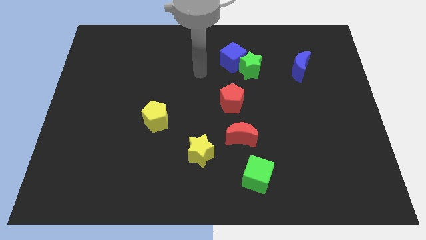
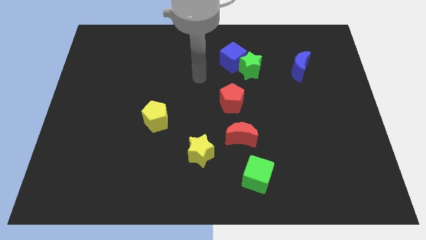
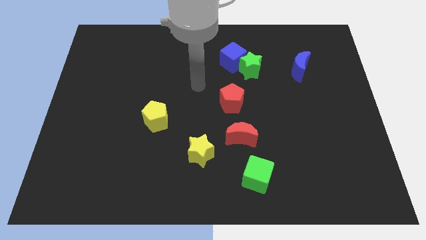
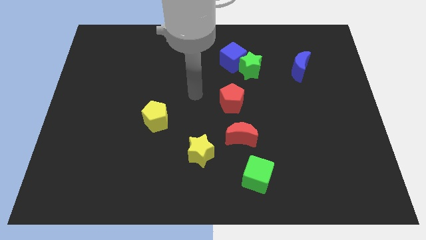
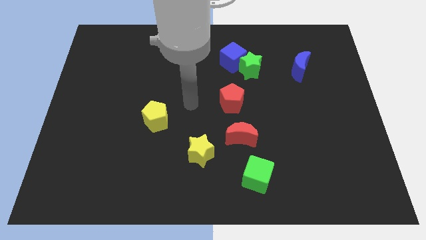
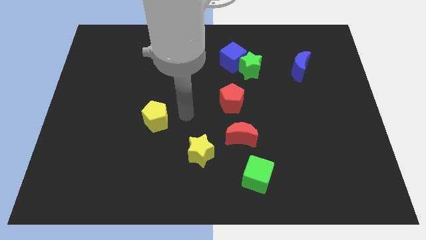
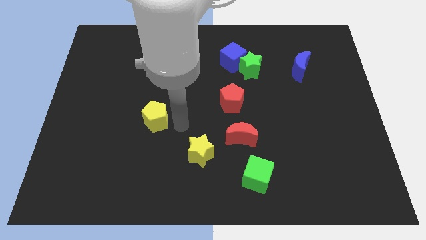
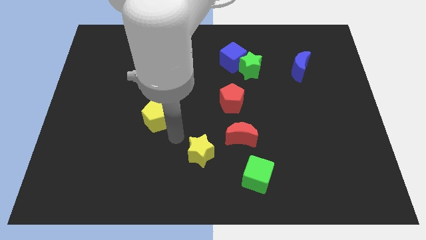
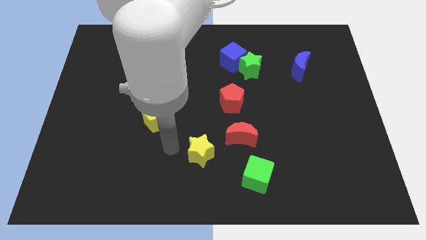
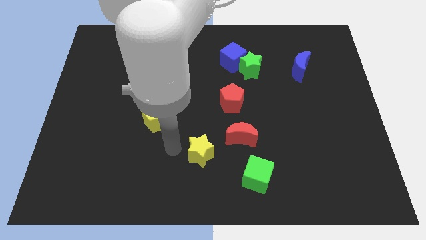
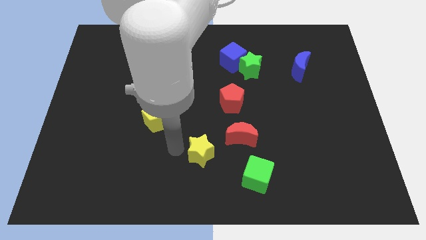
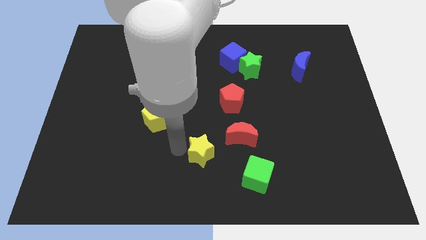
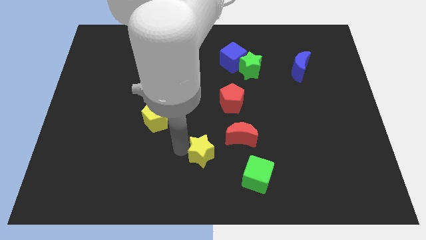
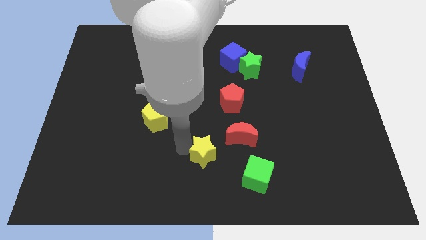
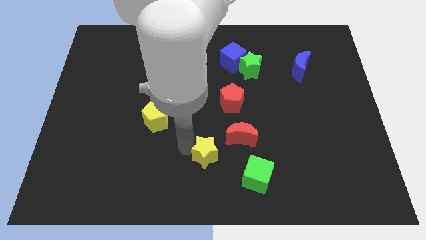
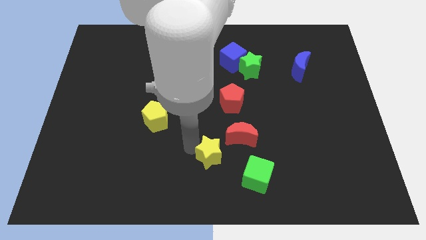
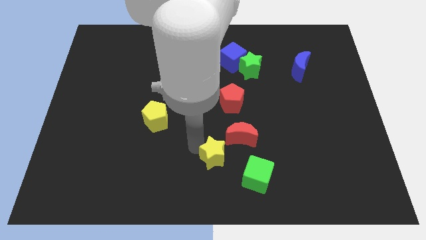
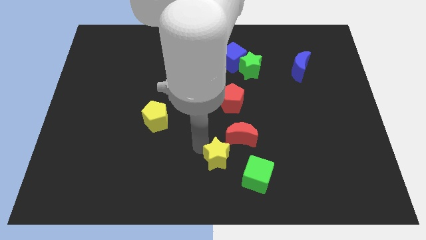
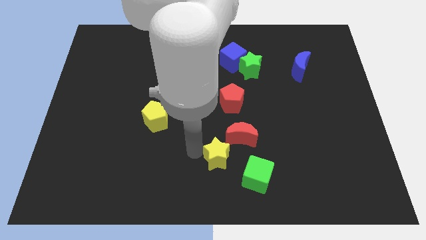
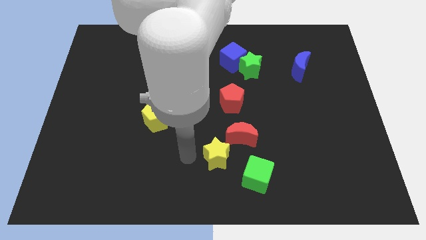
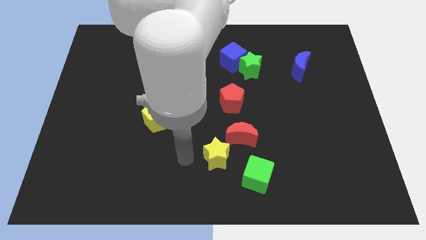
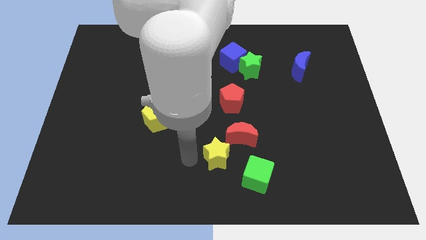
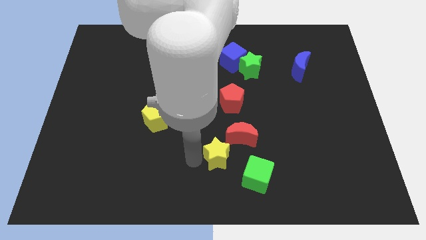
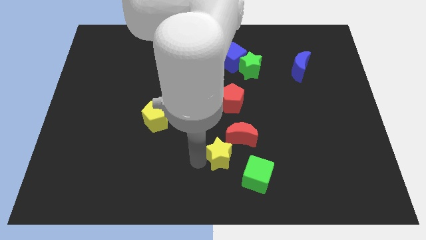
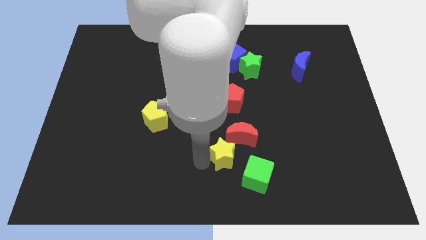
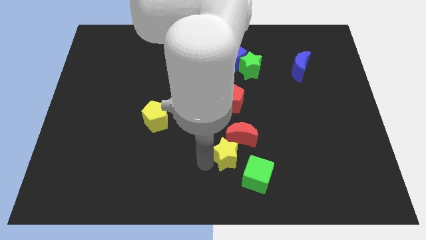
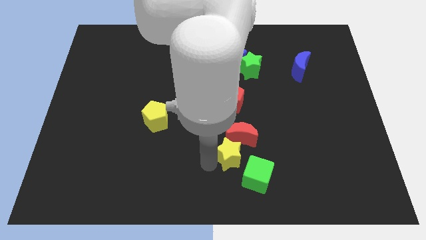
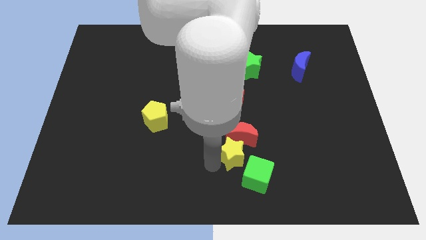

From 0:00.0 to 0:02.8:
slide the yellow star slightly right

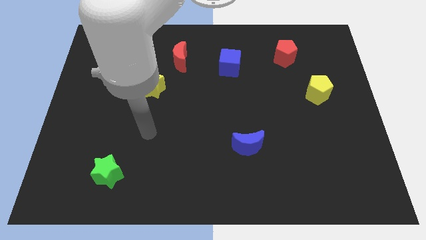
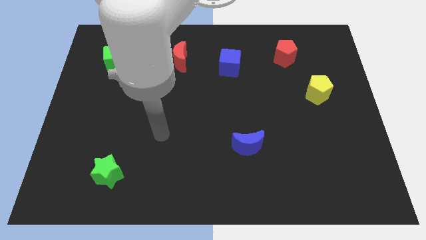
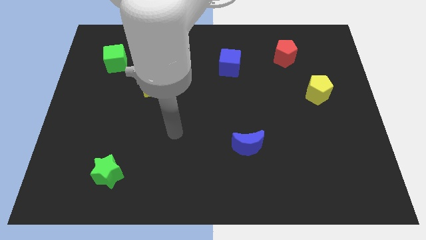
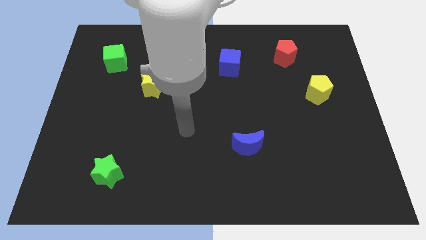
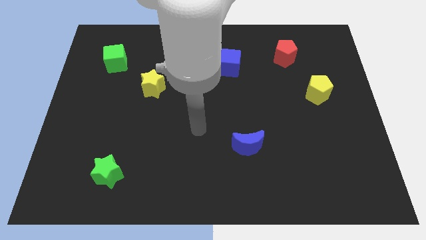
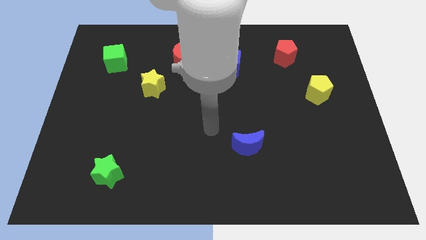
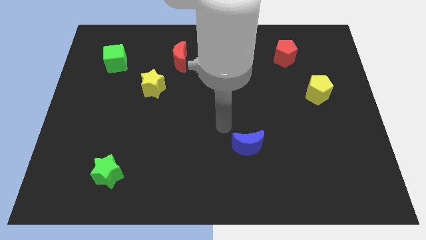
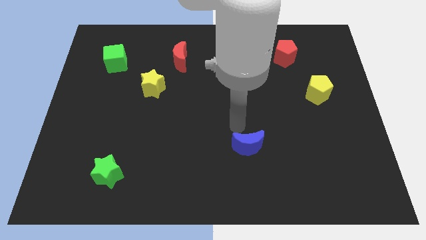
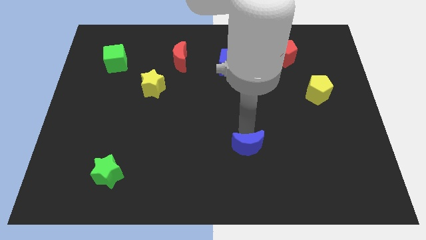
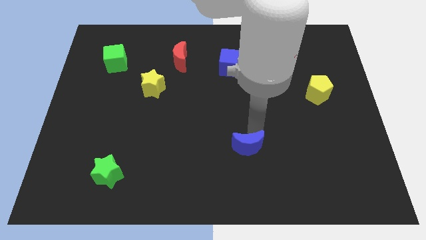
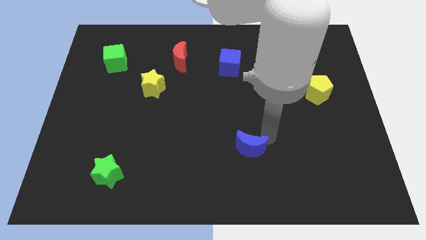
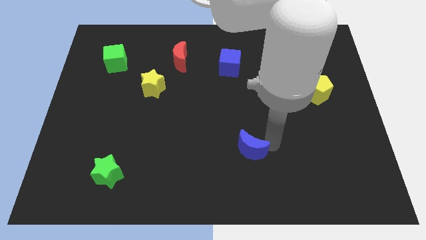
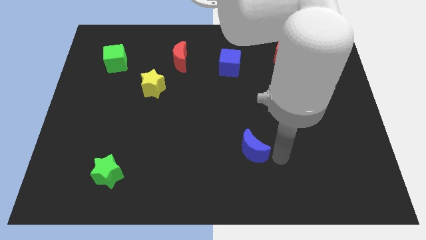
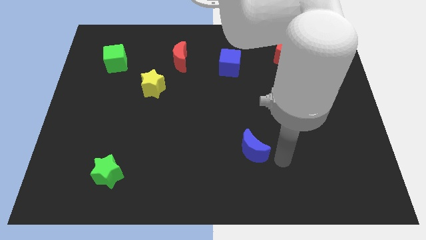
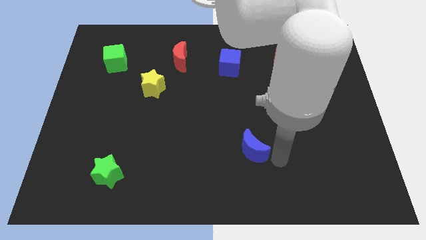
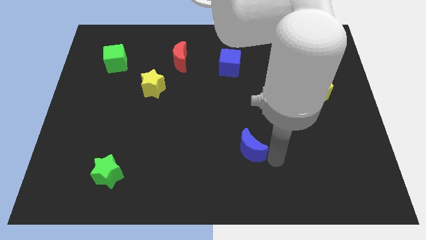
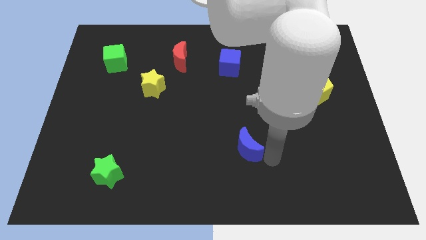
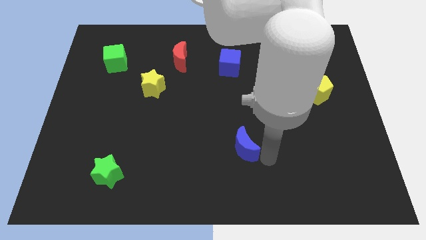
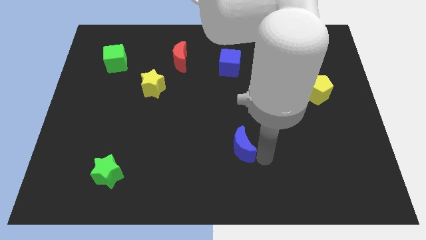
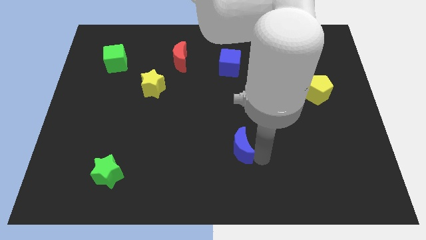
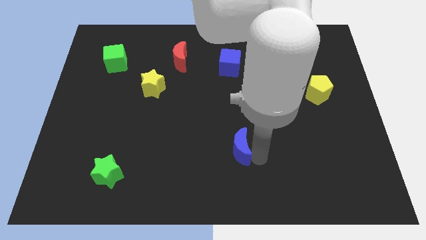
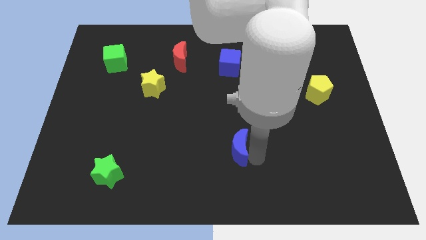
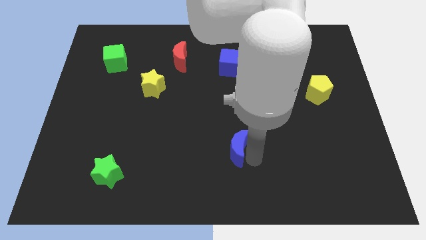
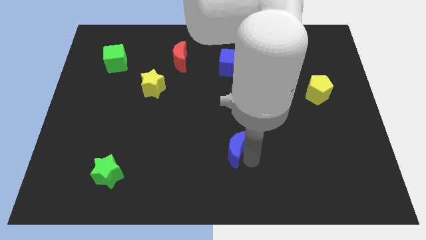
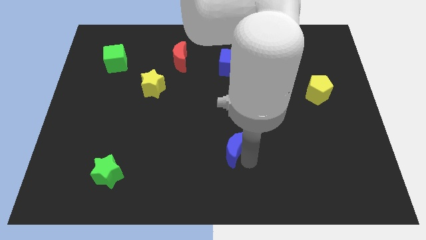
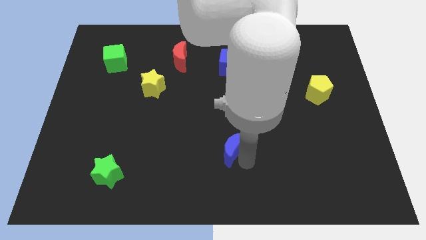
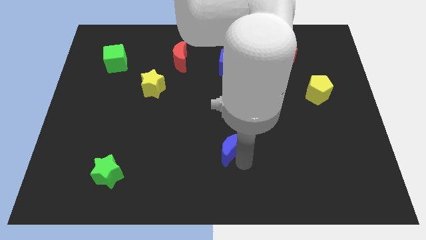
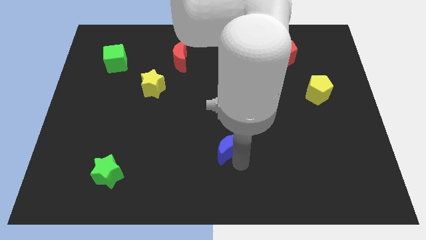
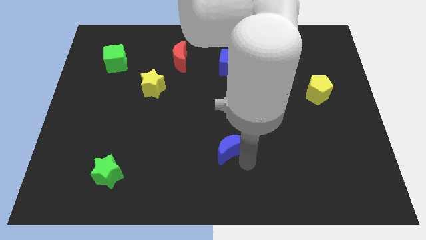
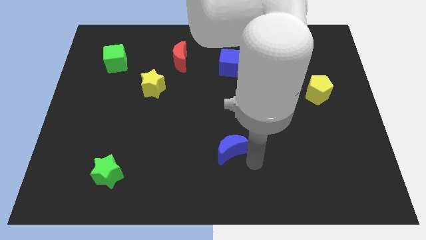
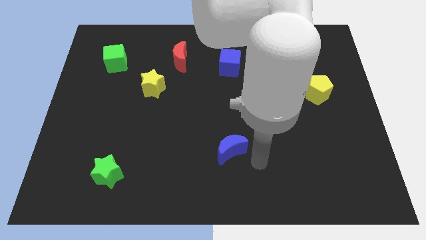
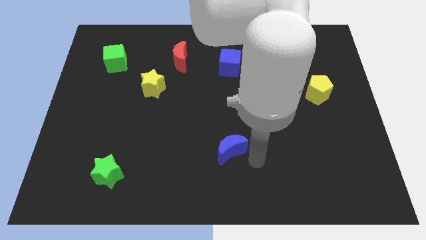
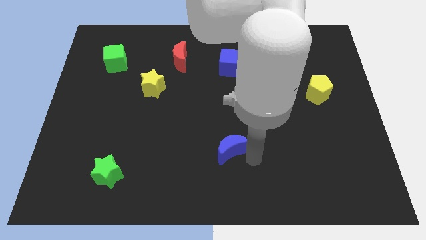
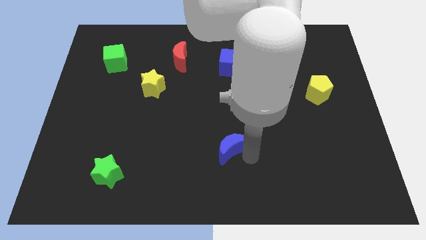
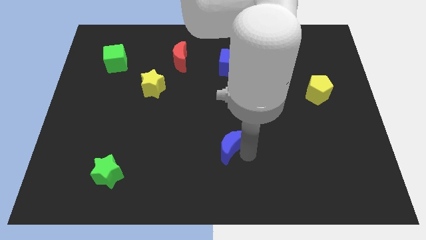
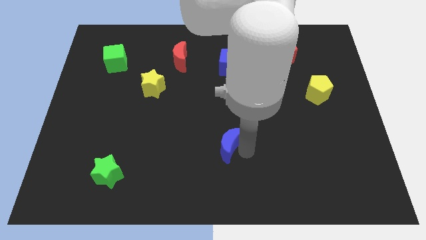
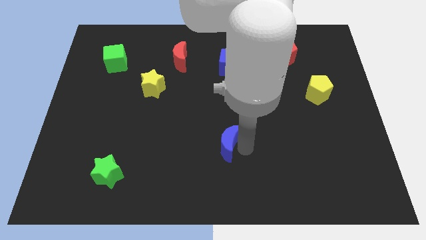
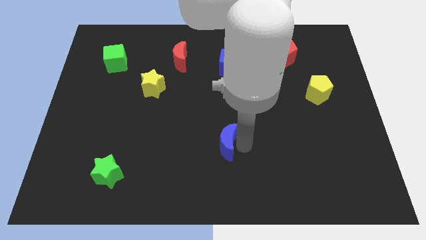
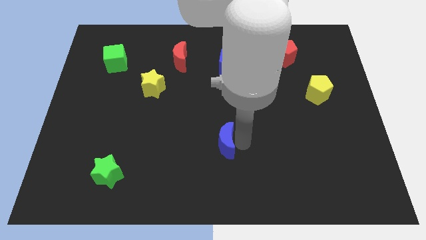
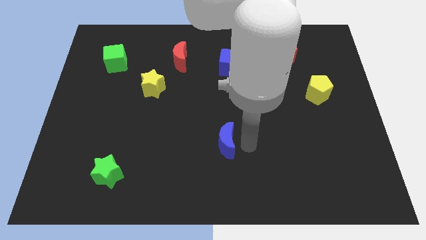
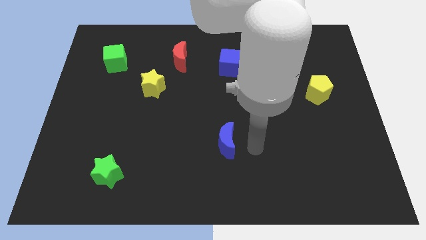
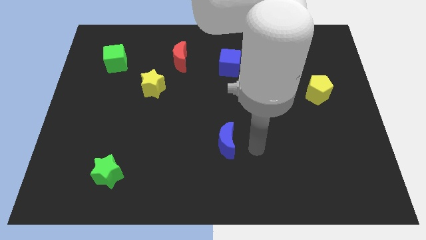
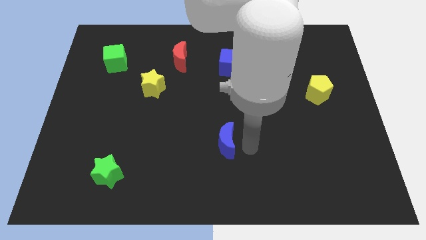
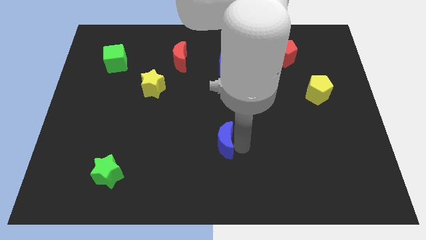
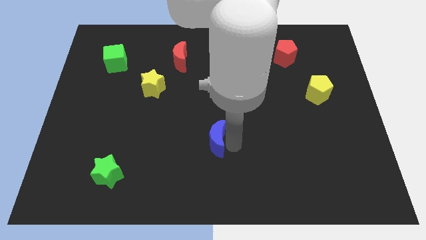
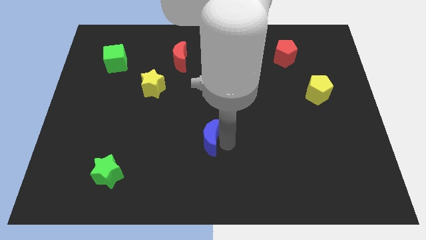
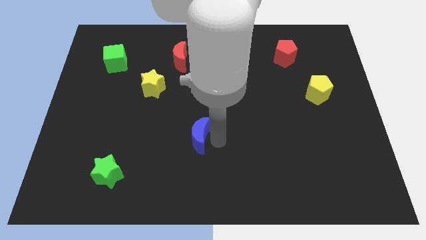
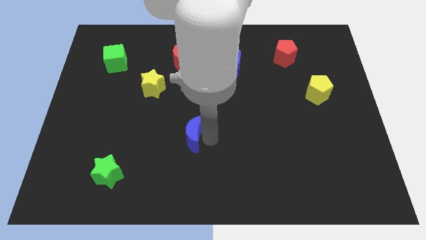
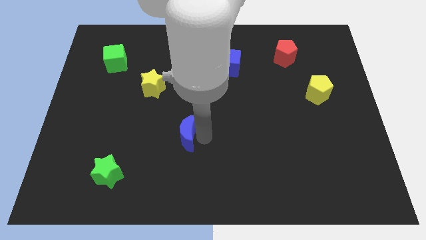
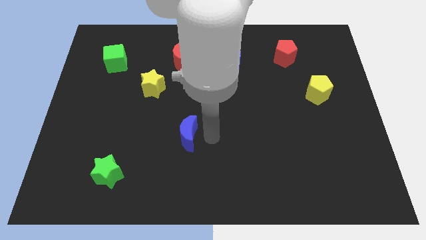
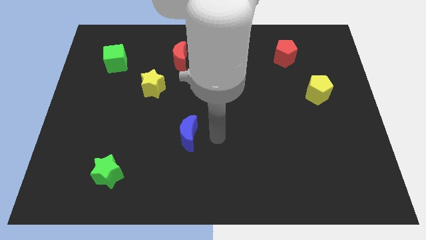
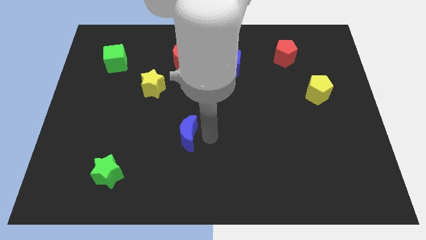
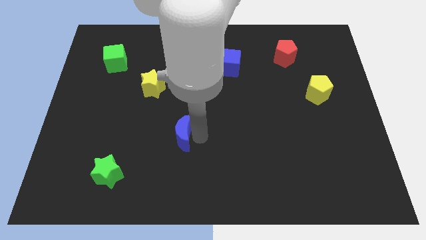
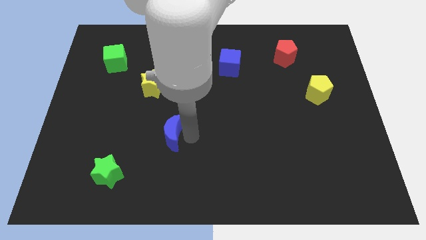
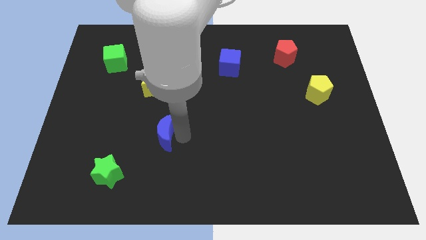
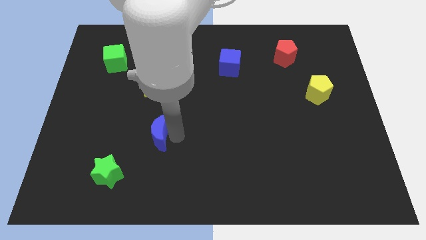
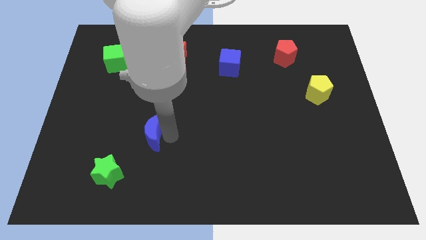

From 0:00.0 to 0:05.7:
push the blue moon to the left
